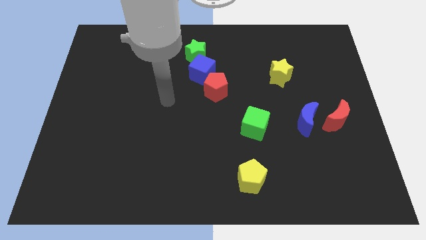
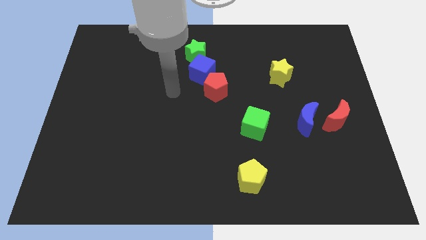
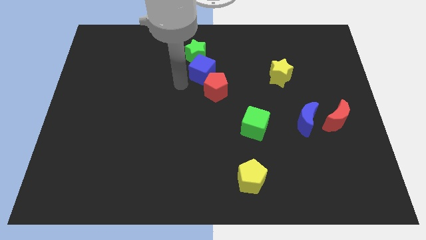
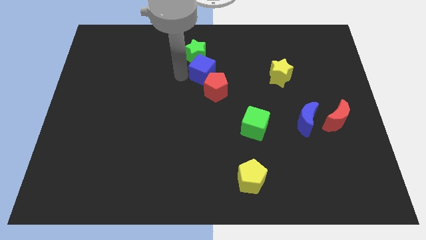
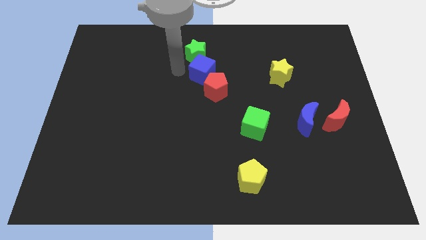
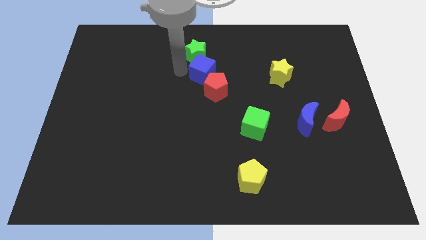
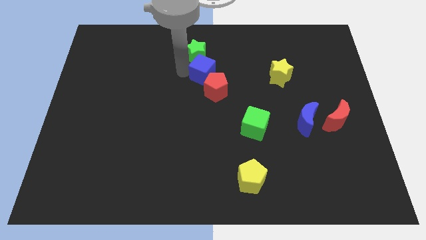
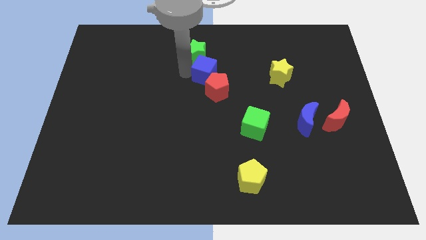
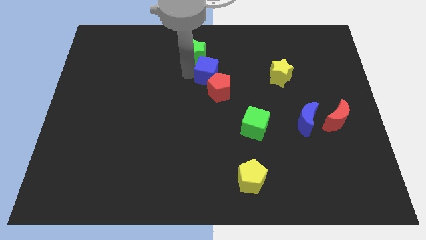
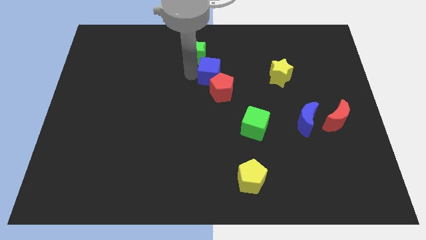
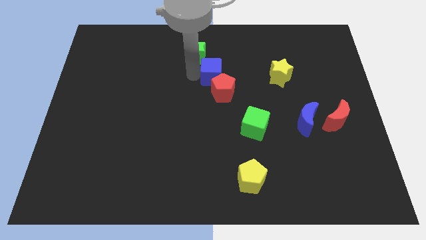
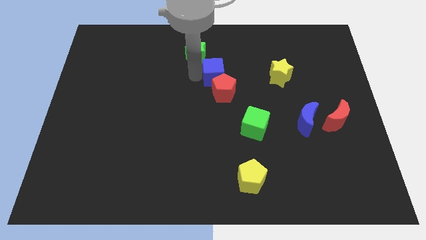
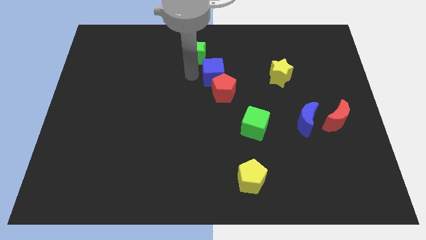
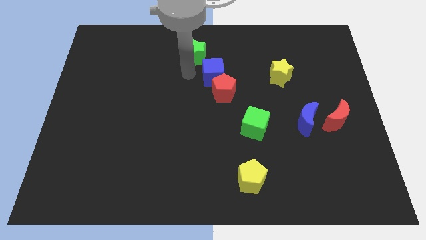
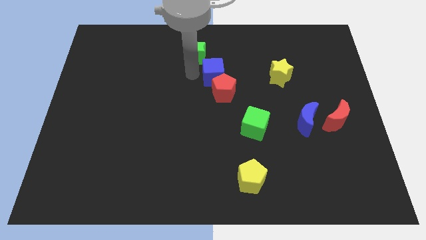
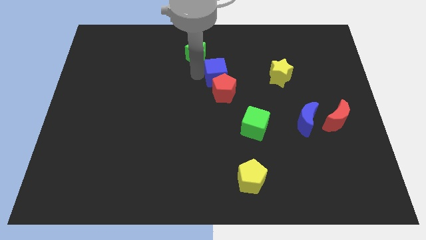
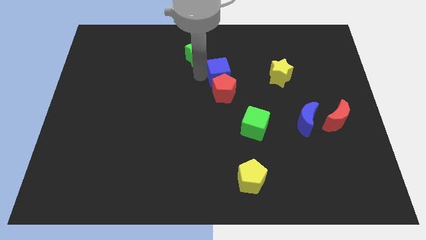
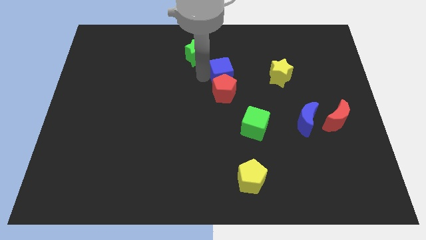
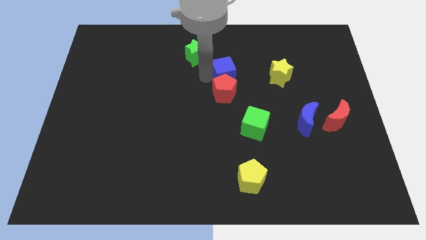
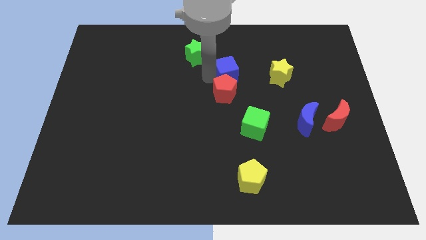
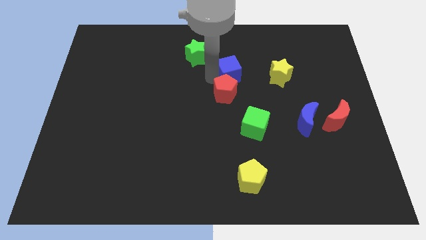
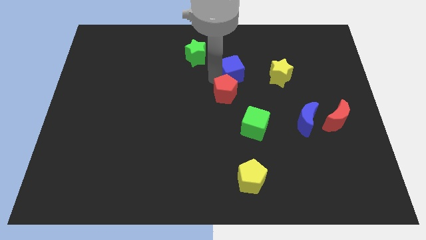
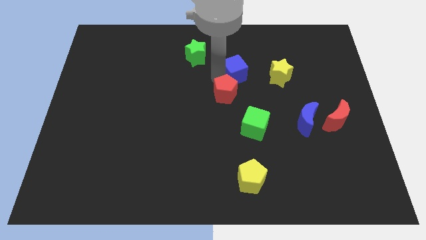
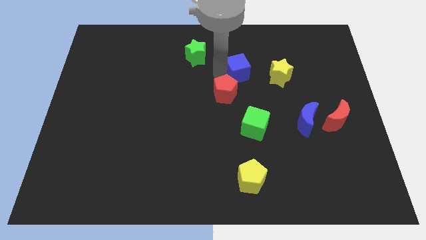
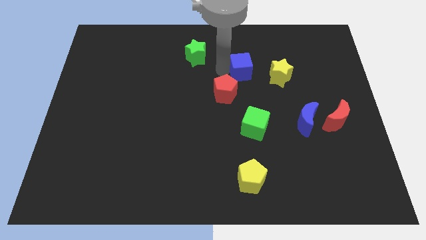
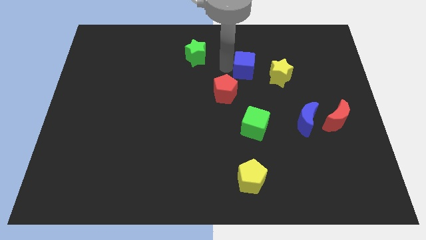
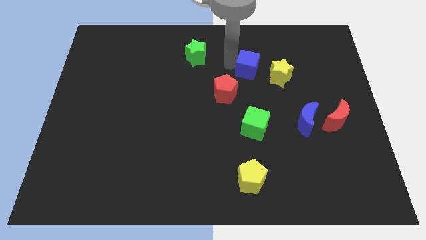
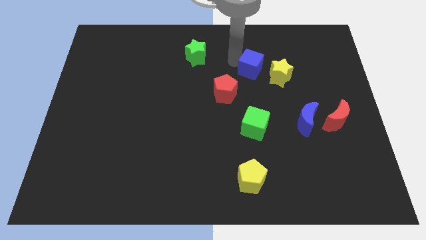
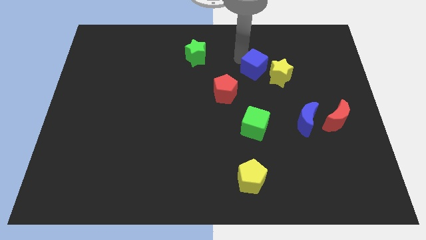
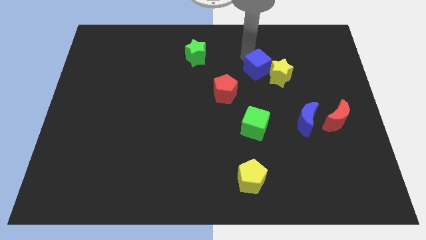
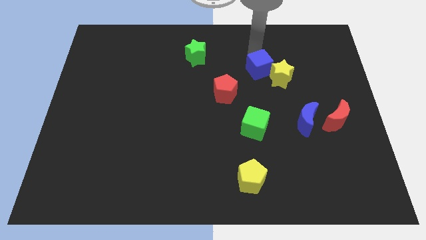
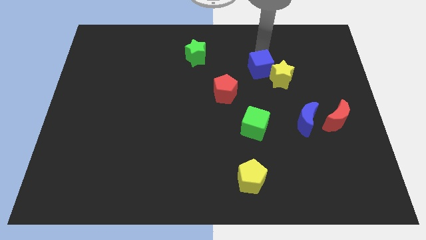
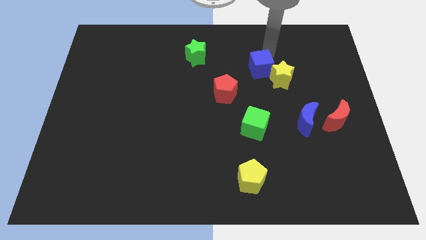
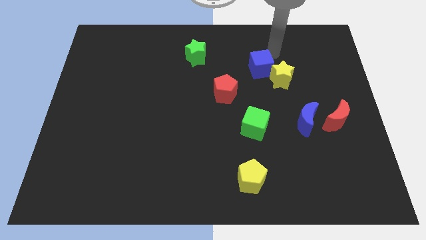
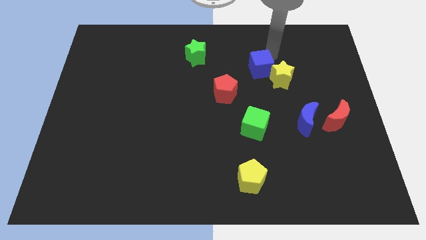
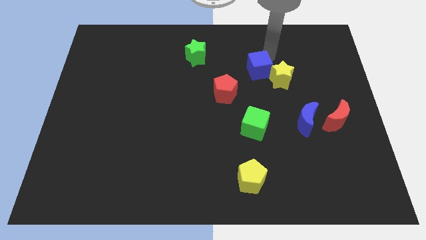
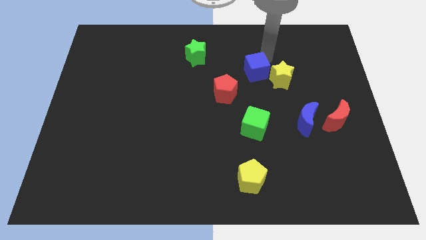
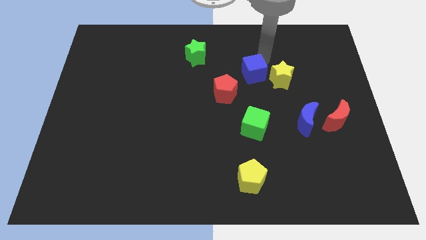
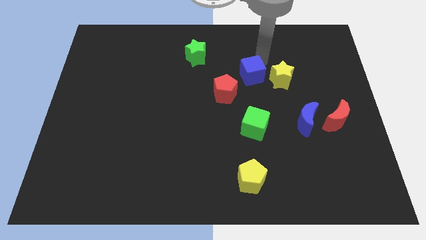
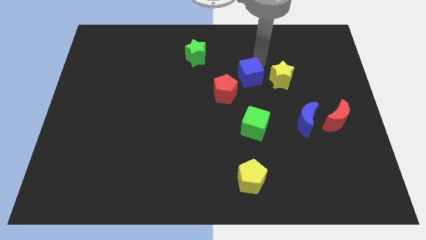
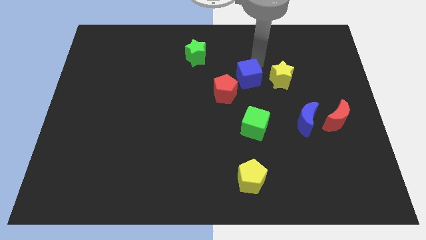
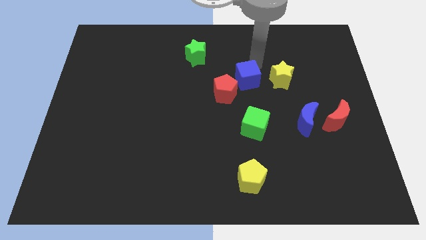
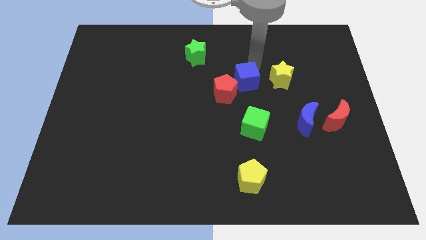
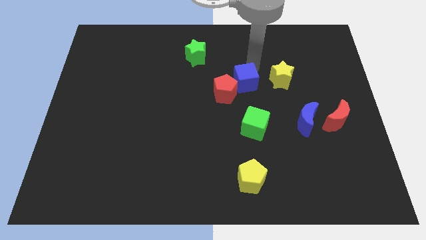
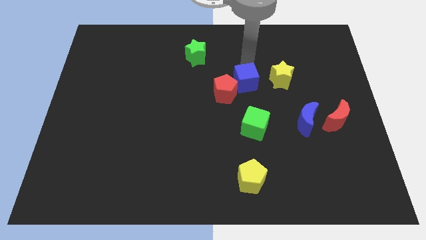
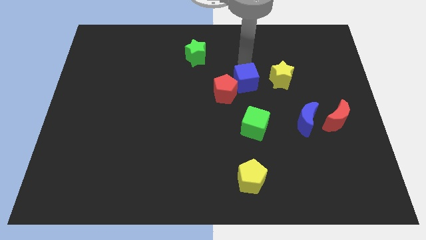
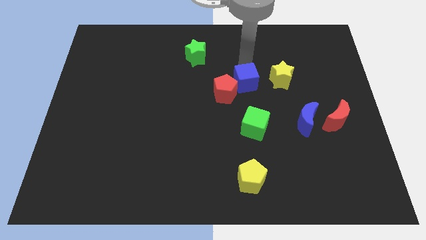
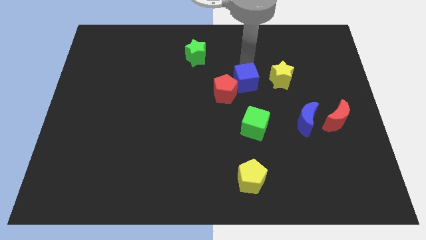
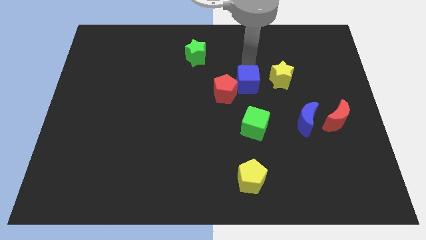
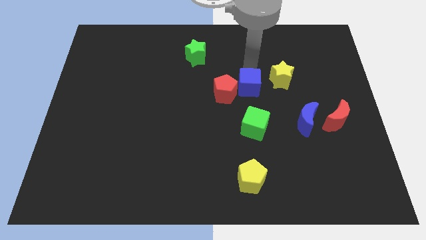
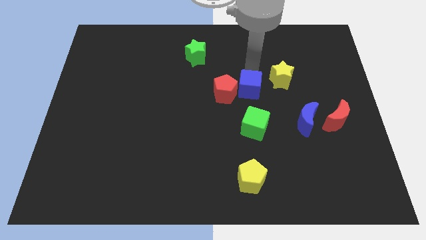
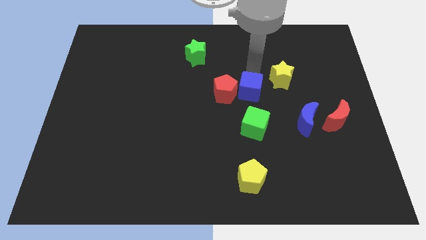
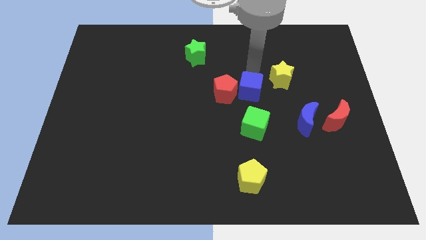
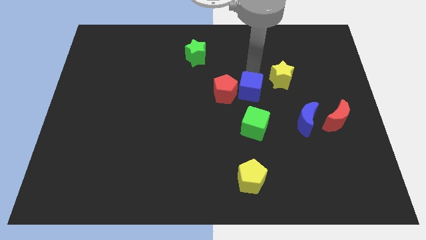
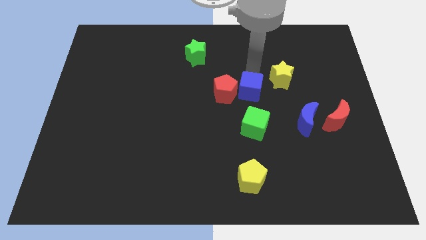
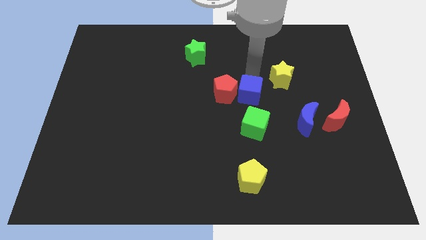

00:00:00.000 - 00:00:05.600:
move the blue cube to the bottom right of the red pentagon

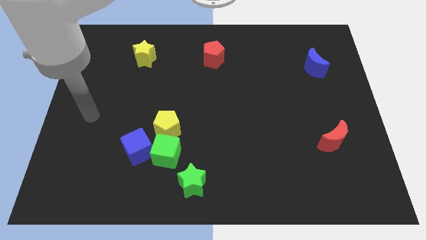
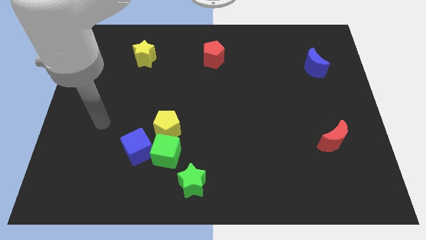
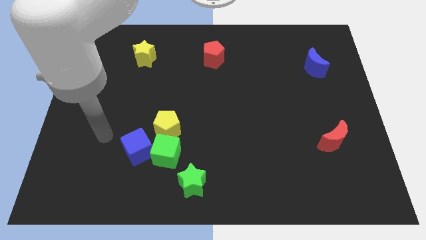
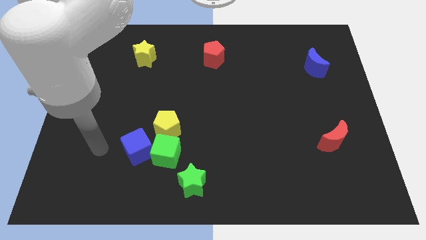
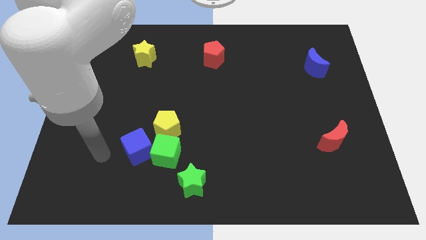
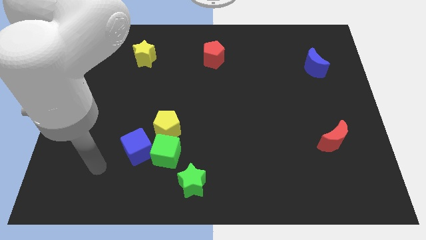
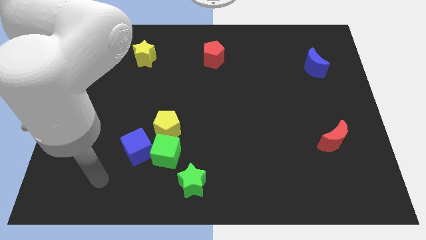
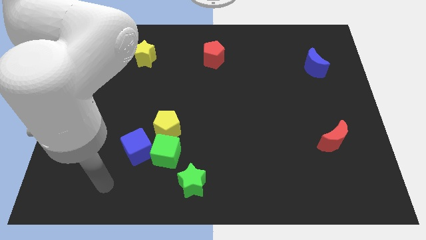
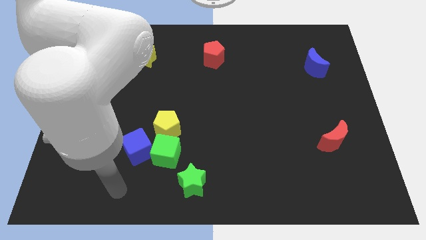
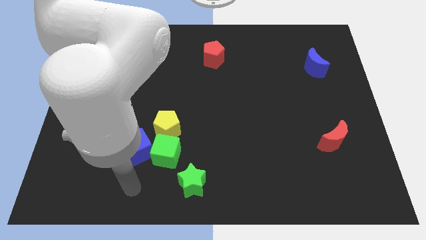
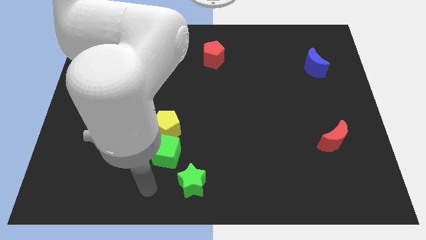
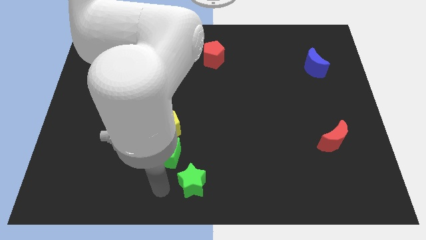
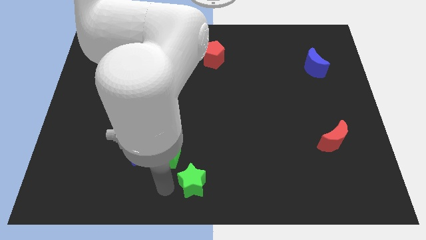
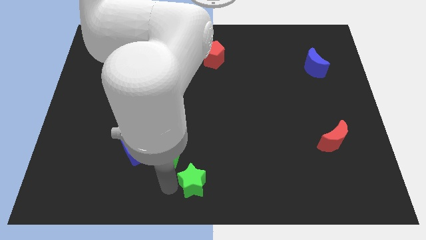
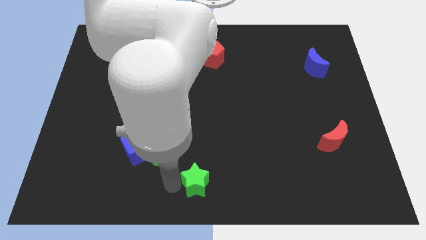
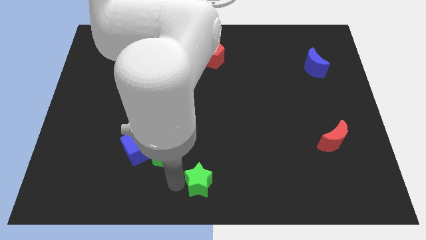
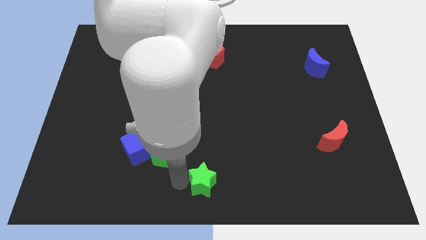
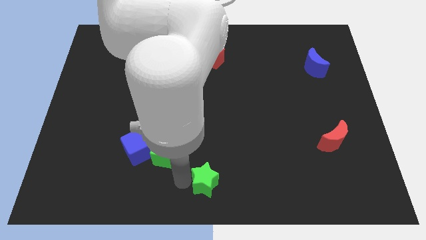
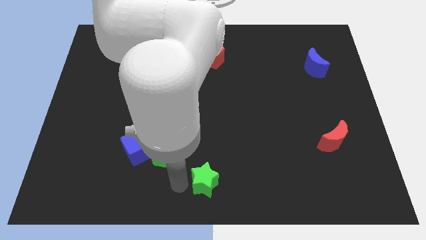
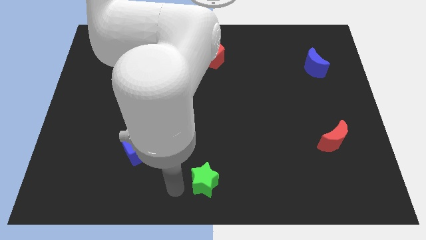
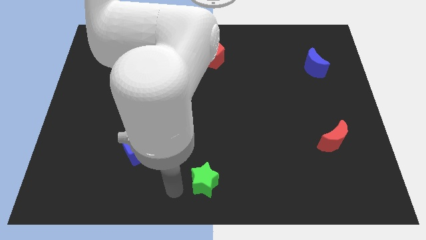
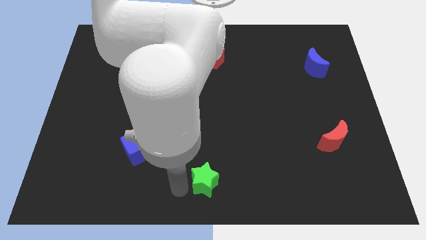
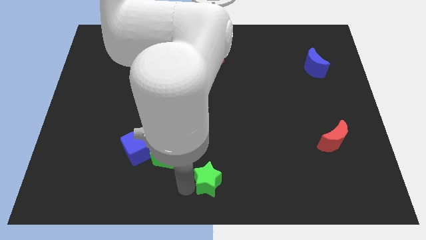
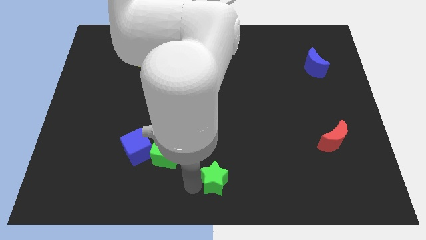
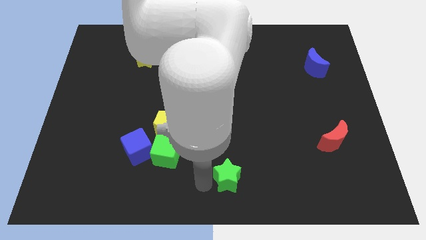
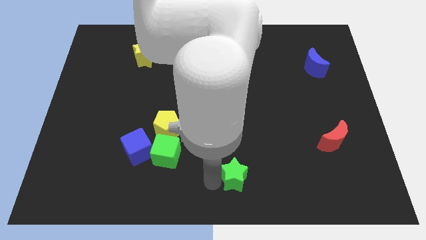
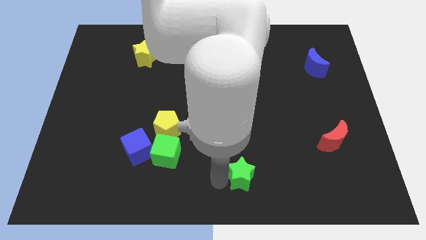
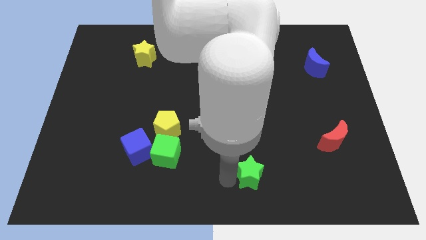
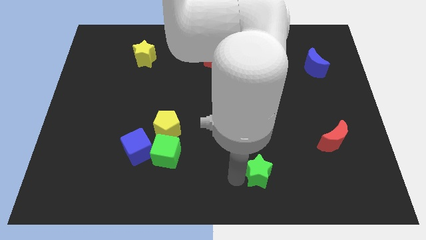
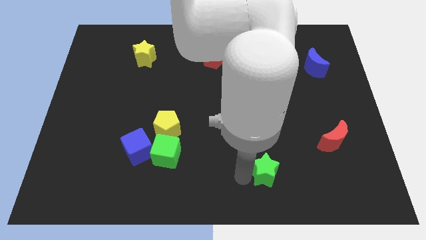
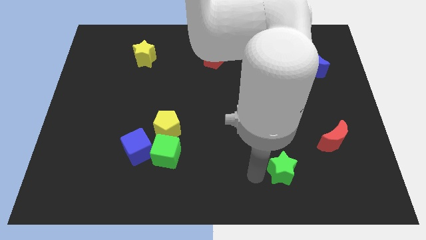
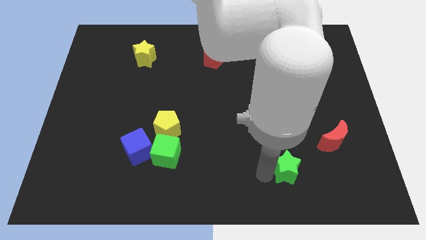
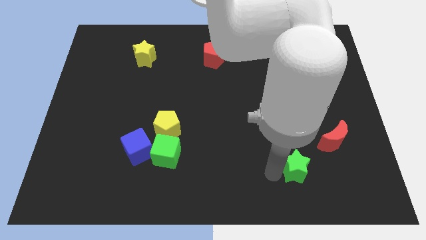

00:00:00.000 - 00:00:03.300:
push the green star to the bottom left side of the red moon
